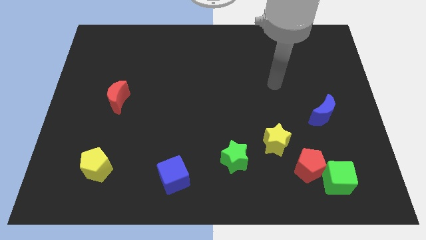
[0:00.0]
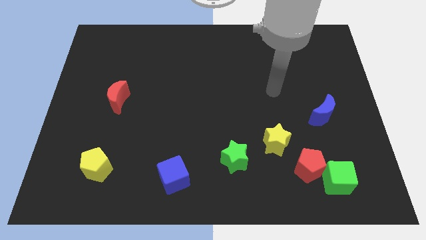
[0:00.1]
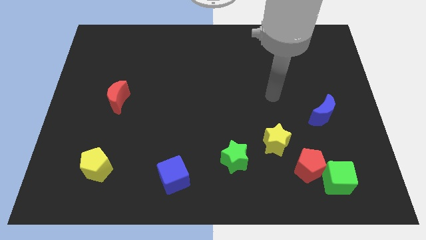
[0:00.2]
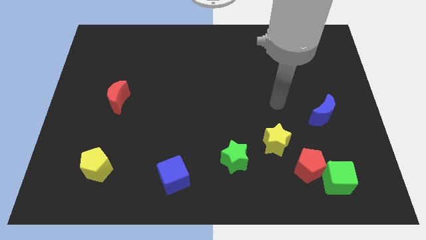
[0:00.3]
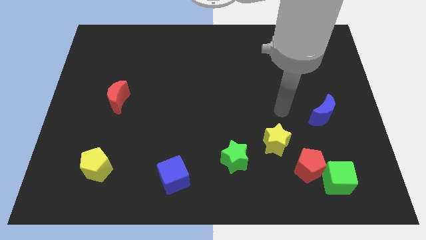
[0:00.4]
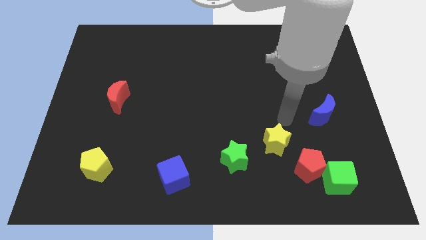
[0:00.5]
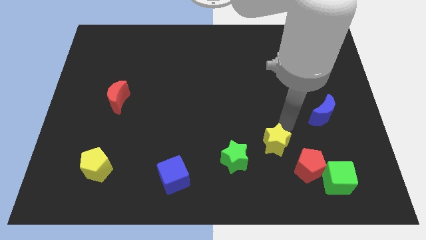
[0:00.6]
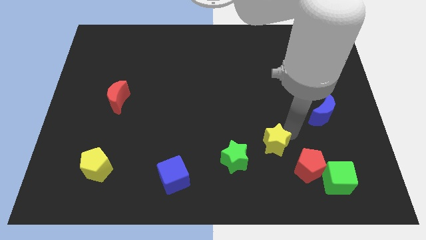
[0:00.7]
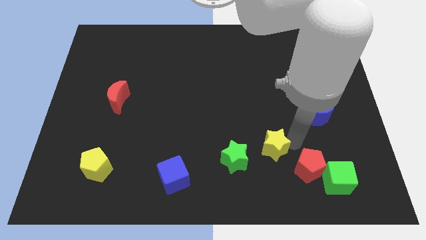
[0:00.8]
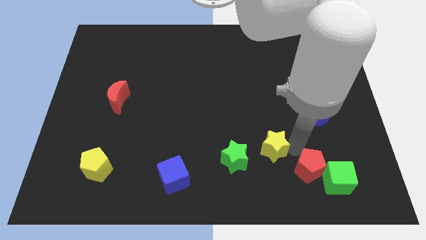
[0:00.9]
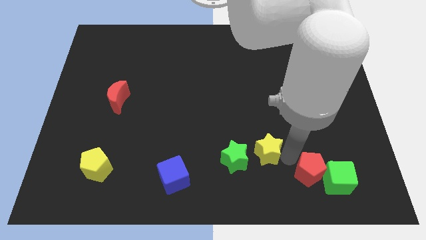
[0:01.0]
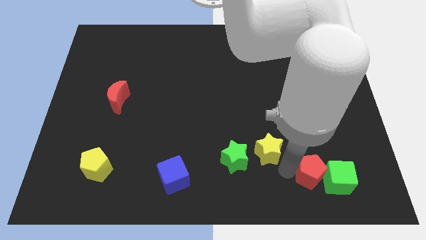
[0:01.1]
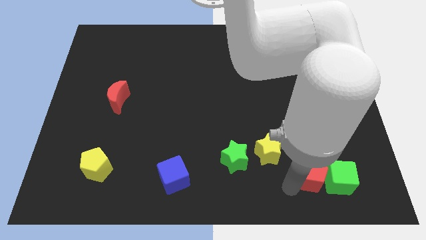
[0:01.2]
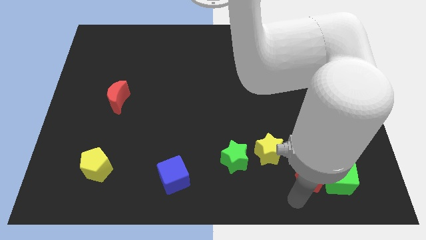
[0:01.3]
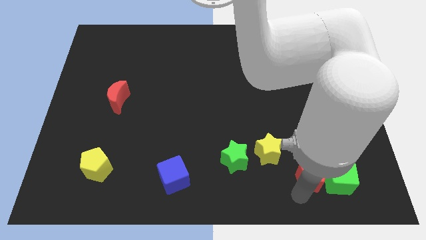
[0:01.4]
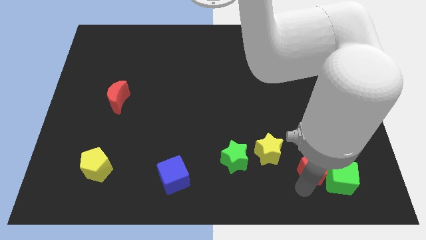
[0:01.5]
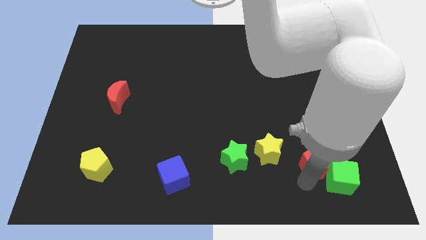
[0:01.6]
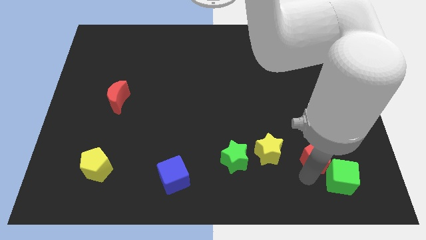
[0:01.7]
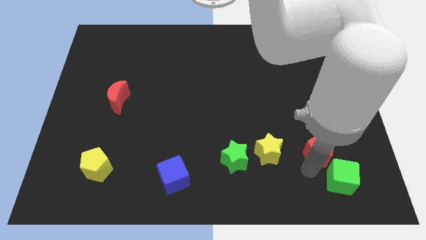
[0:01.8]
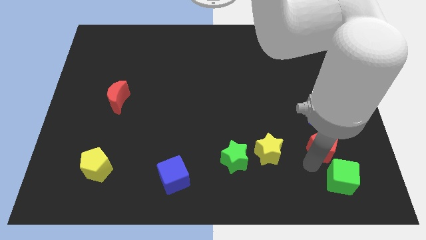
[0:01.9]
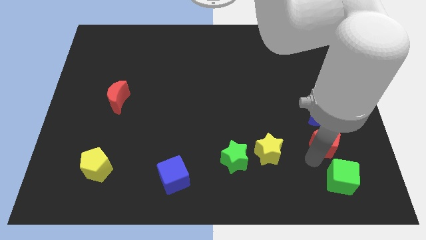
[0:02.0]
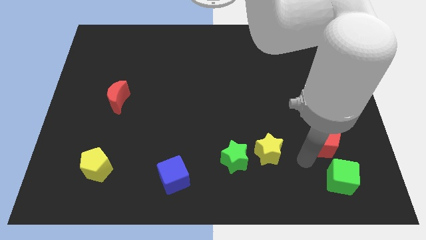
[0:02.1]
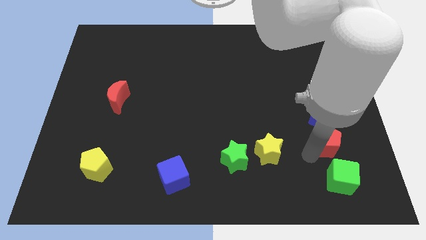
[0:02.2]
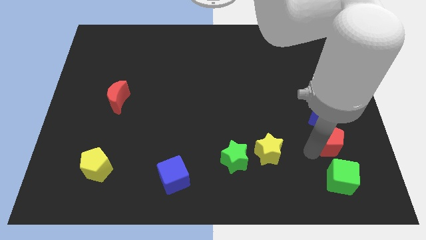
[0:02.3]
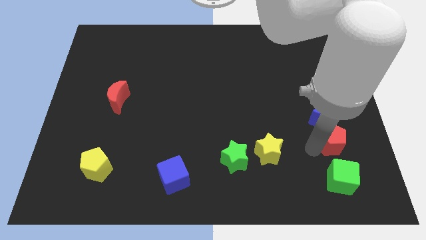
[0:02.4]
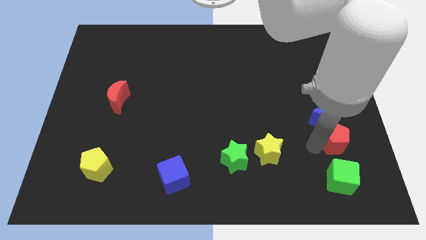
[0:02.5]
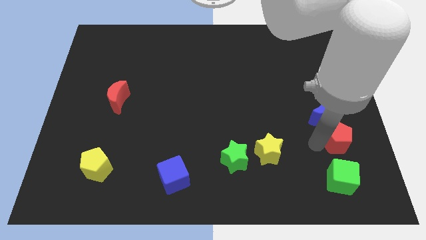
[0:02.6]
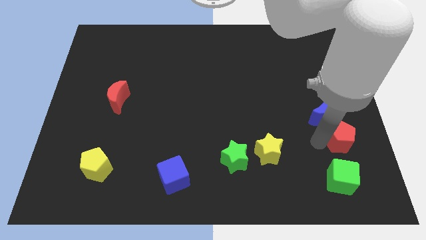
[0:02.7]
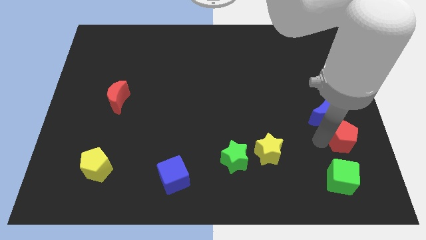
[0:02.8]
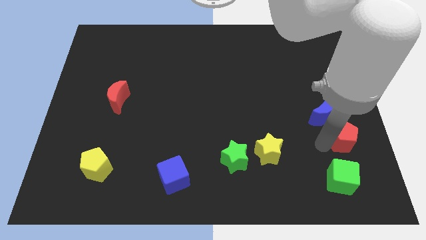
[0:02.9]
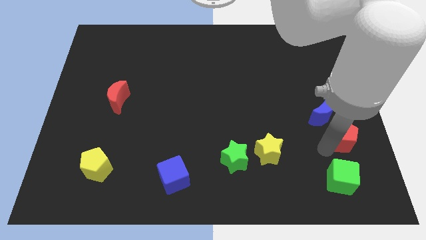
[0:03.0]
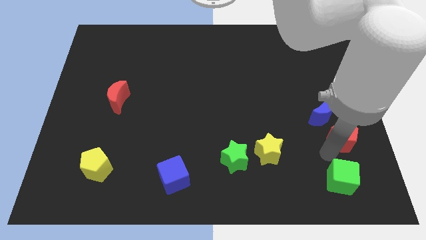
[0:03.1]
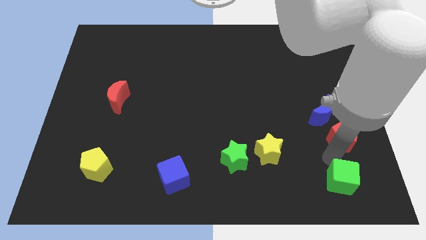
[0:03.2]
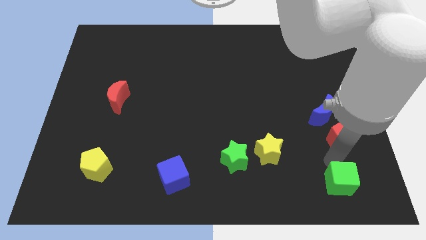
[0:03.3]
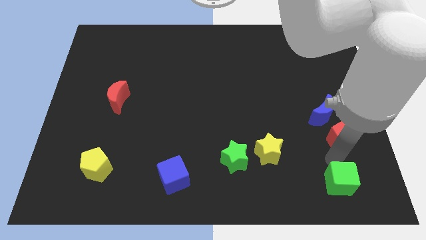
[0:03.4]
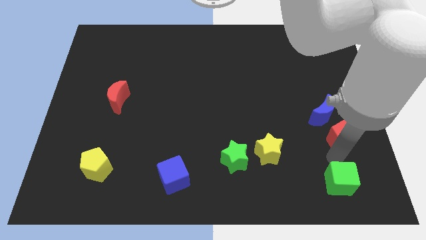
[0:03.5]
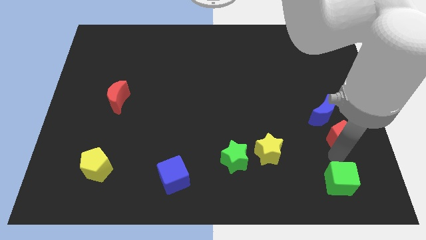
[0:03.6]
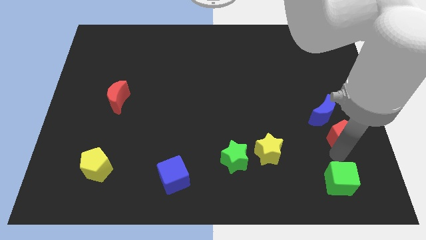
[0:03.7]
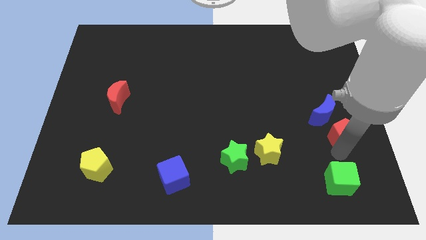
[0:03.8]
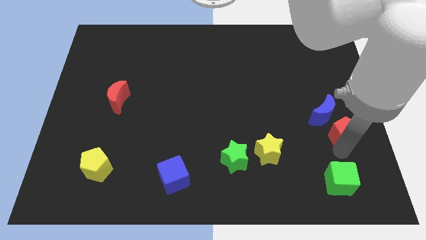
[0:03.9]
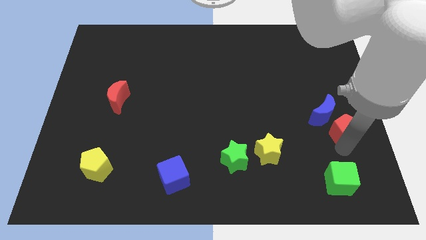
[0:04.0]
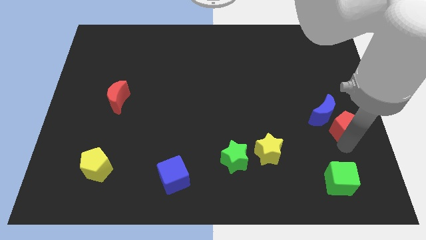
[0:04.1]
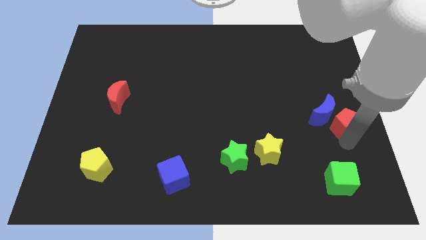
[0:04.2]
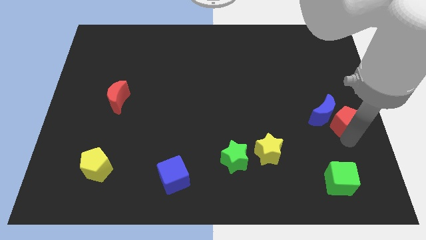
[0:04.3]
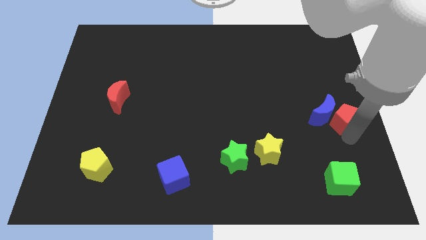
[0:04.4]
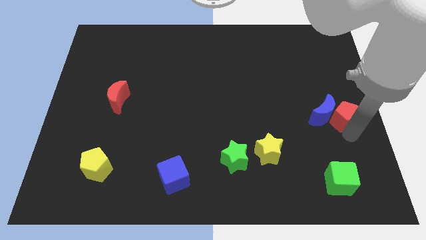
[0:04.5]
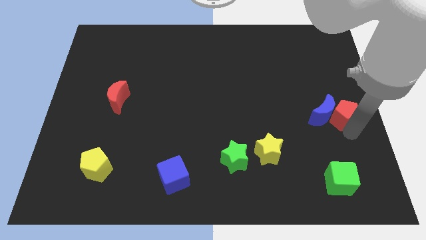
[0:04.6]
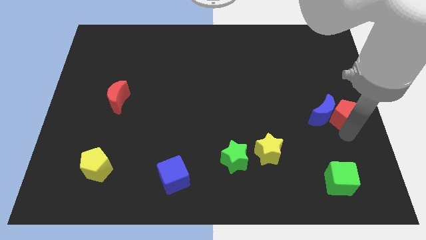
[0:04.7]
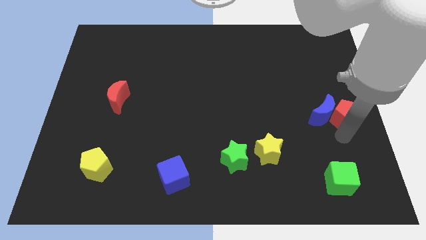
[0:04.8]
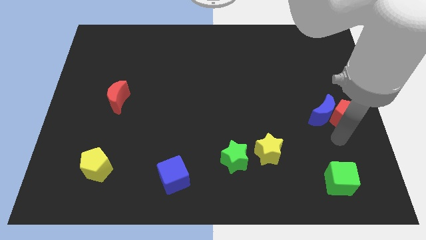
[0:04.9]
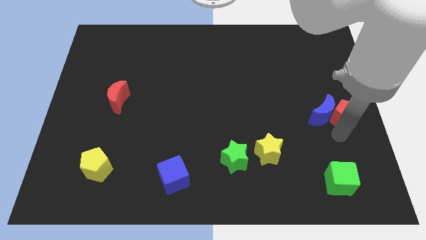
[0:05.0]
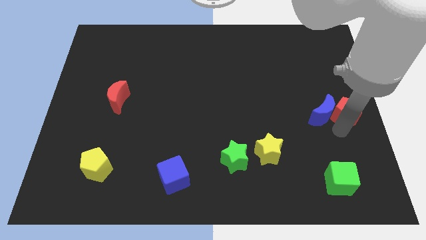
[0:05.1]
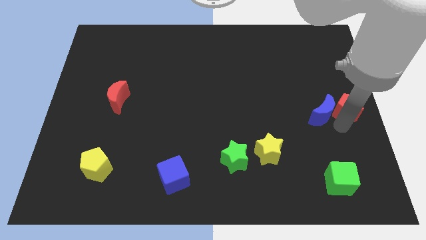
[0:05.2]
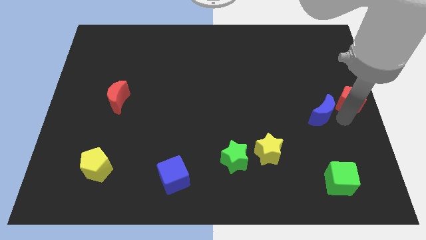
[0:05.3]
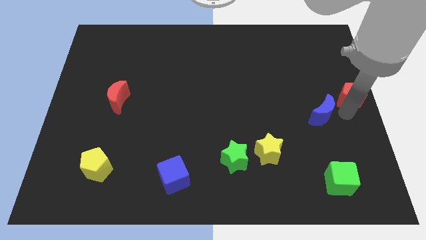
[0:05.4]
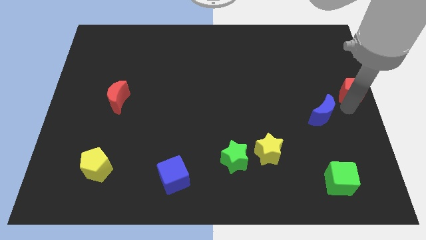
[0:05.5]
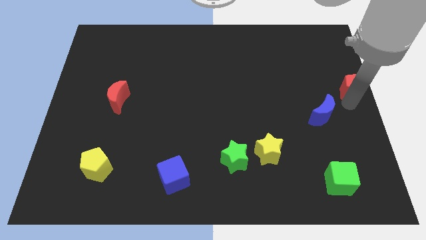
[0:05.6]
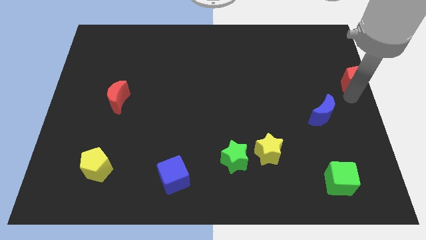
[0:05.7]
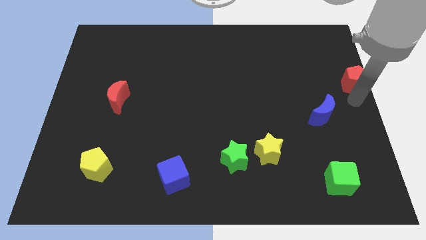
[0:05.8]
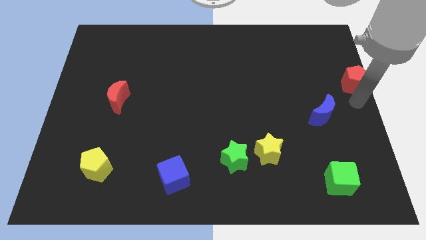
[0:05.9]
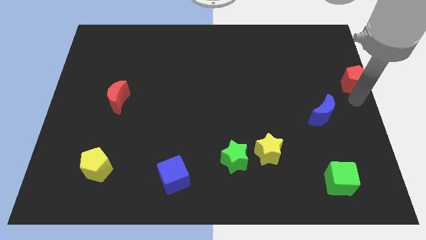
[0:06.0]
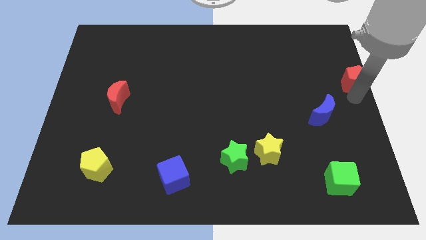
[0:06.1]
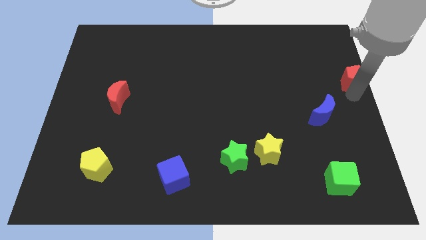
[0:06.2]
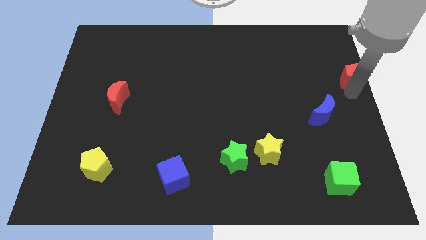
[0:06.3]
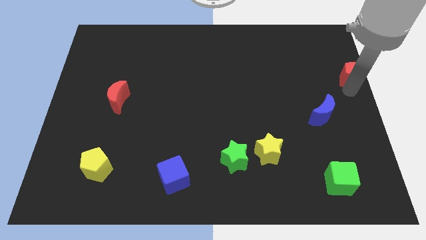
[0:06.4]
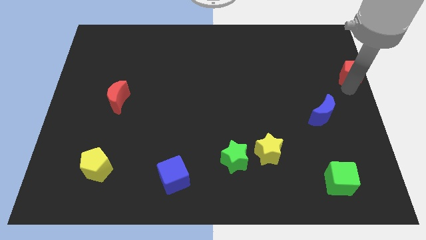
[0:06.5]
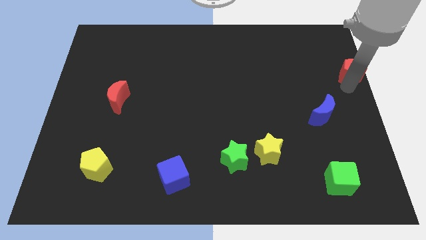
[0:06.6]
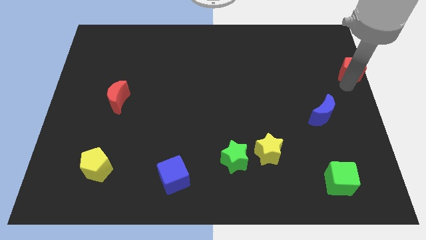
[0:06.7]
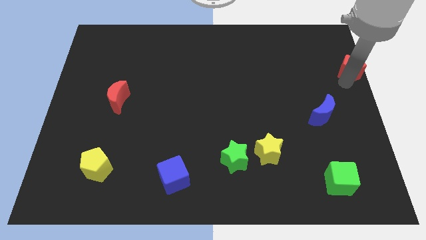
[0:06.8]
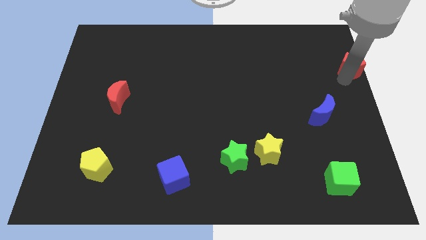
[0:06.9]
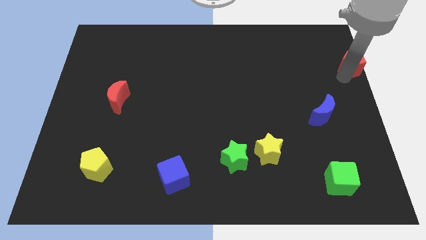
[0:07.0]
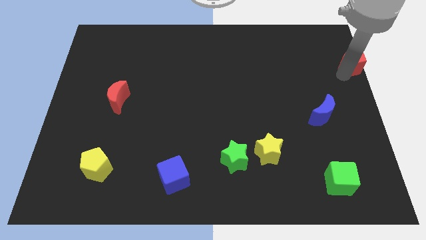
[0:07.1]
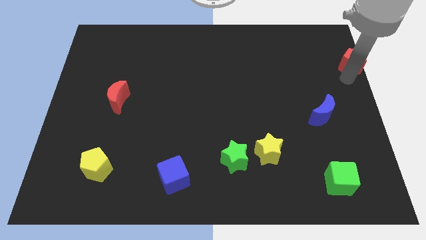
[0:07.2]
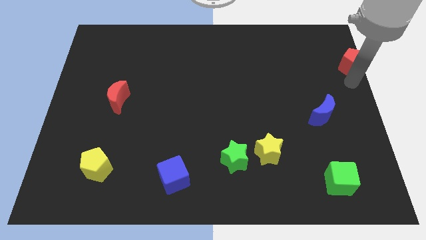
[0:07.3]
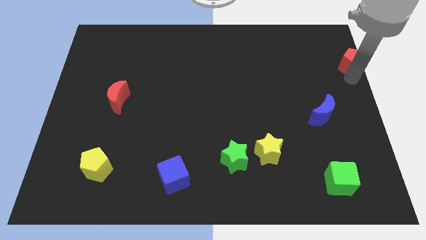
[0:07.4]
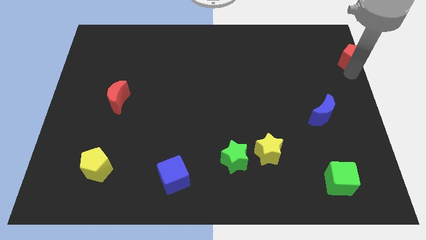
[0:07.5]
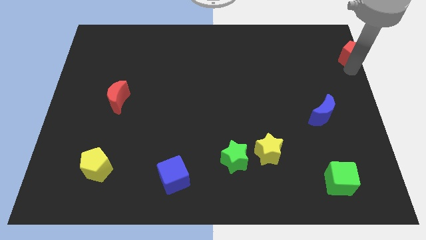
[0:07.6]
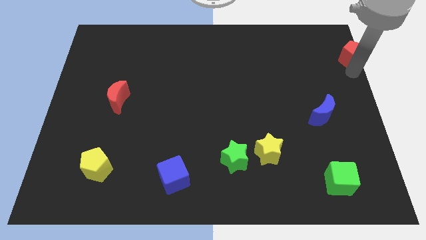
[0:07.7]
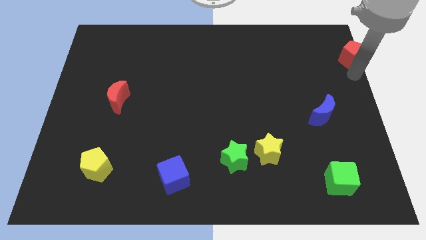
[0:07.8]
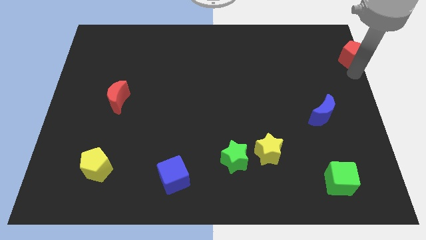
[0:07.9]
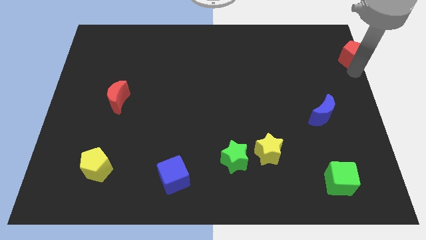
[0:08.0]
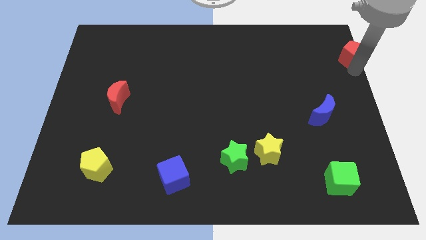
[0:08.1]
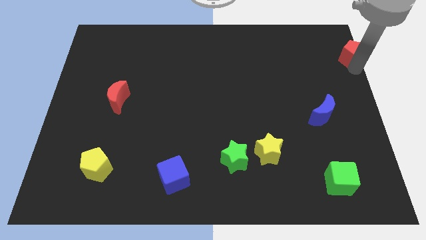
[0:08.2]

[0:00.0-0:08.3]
put the red pentagon to the upper right corner
